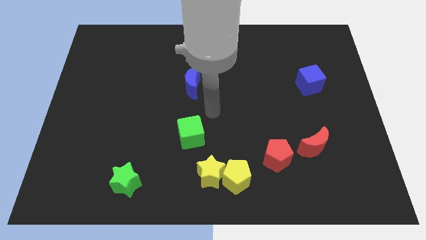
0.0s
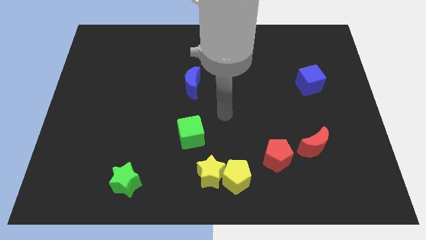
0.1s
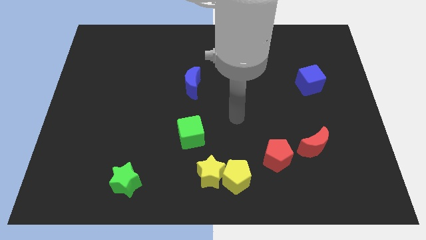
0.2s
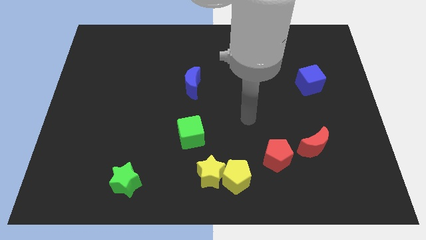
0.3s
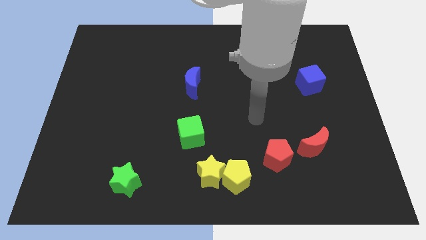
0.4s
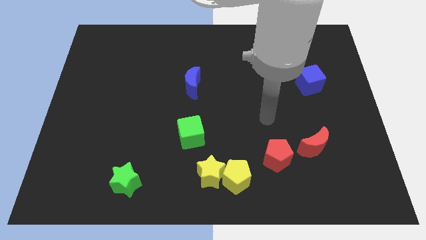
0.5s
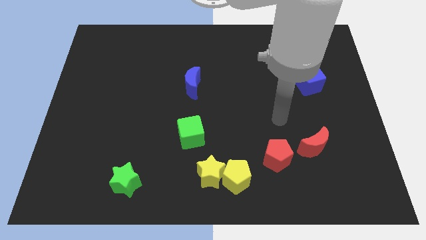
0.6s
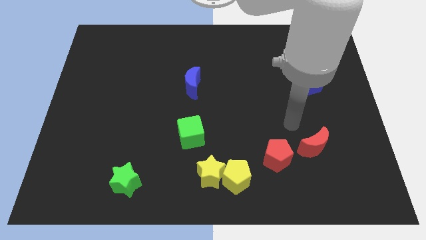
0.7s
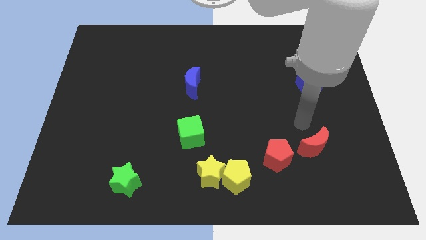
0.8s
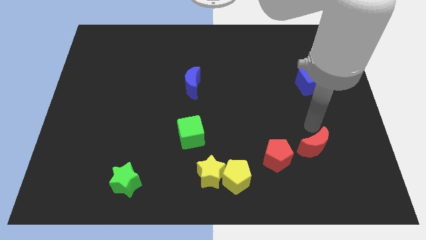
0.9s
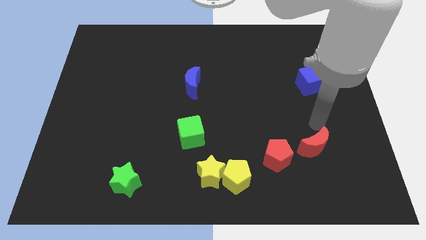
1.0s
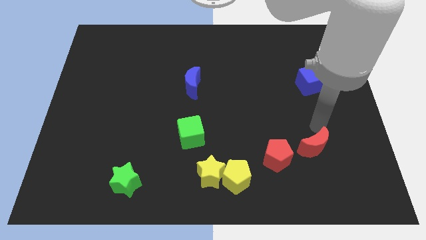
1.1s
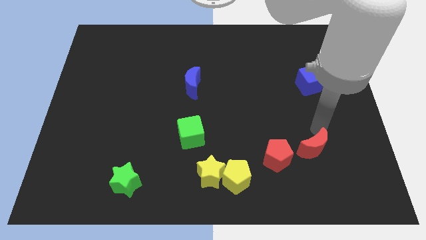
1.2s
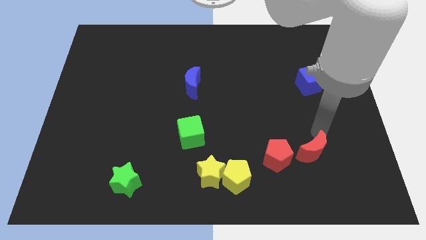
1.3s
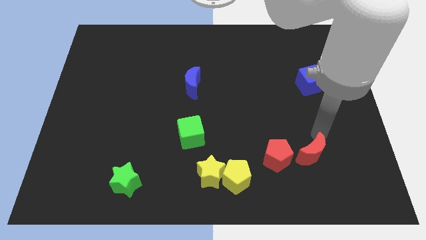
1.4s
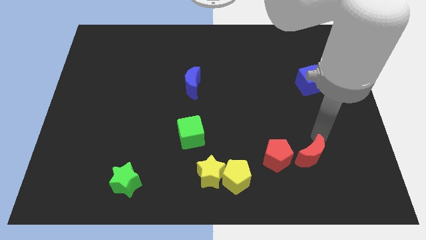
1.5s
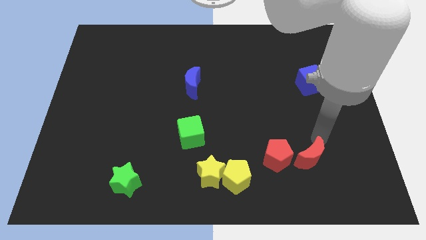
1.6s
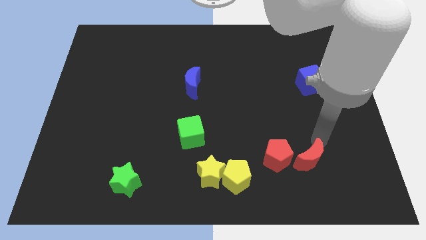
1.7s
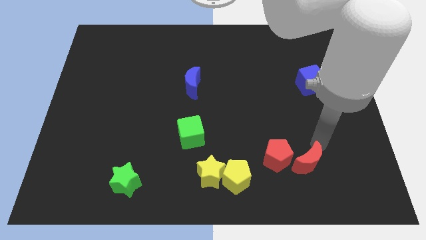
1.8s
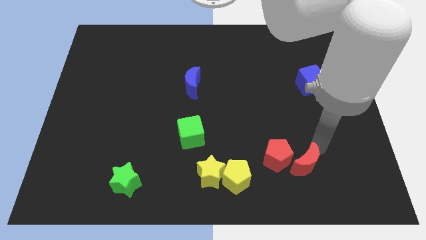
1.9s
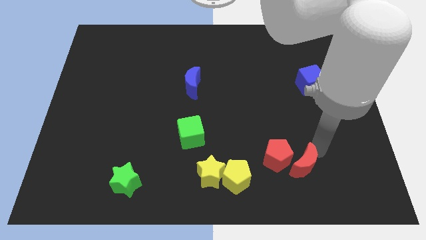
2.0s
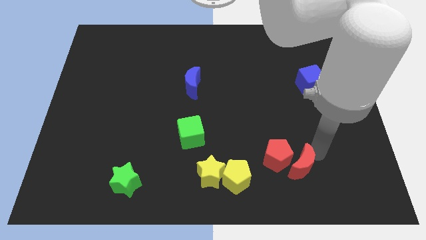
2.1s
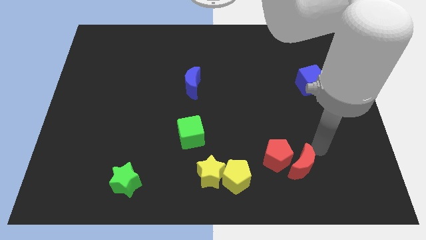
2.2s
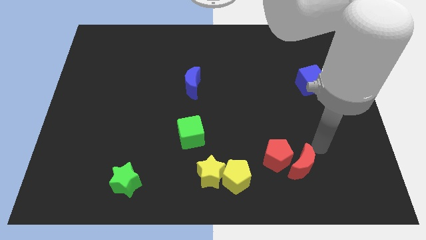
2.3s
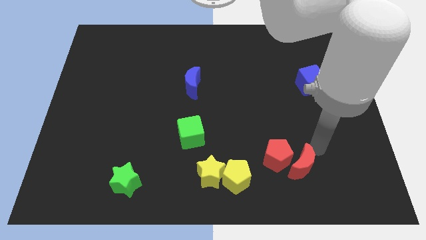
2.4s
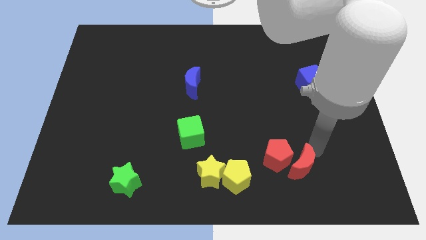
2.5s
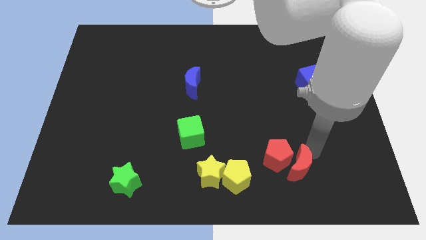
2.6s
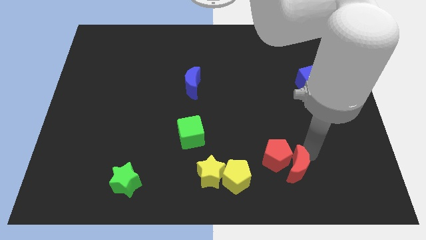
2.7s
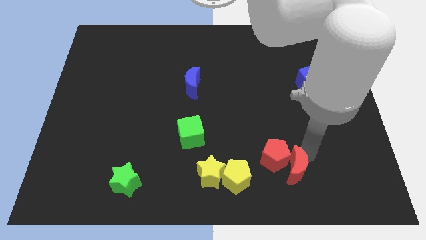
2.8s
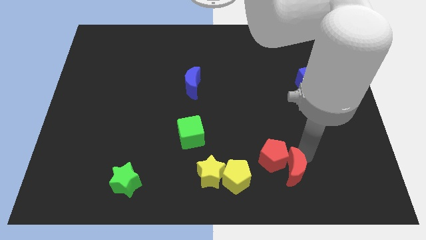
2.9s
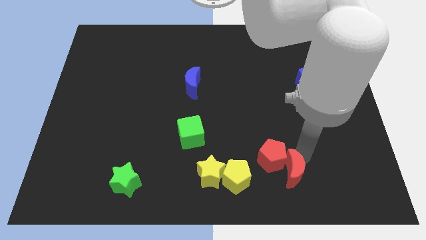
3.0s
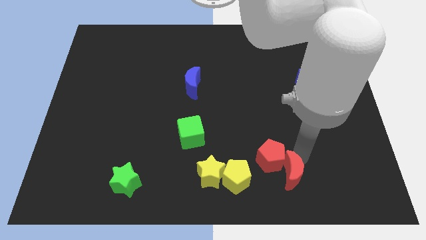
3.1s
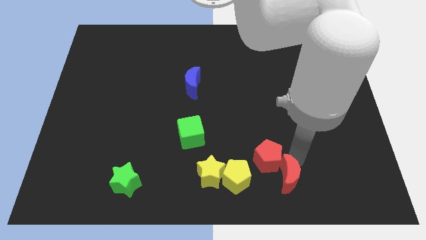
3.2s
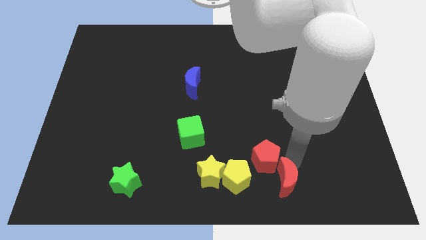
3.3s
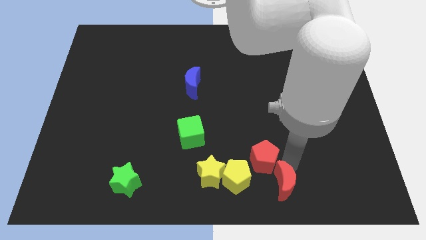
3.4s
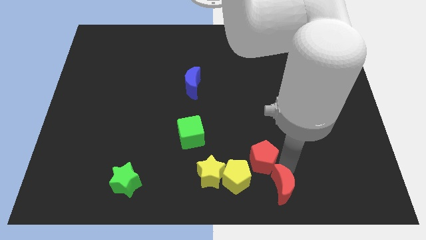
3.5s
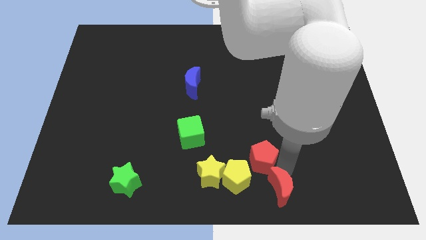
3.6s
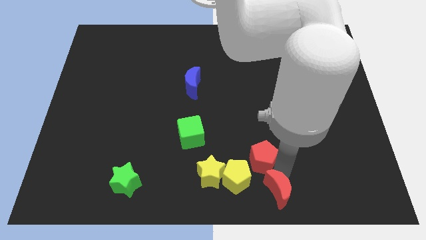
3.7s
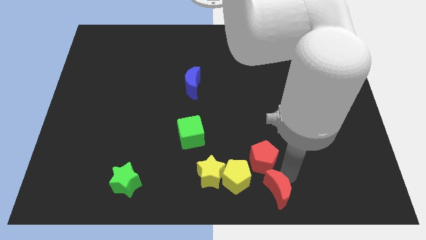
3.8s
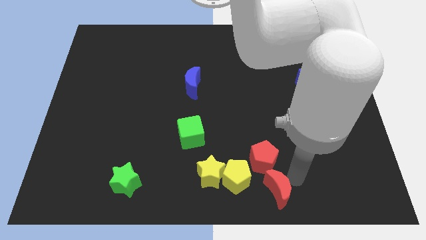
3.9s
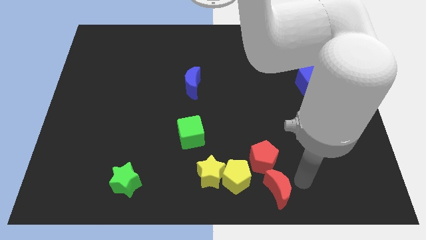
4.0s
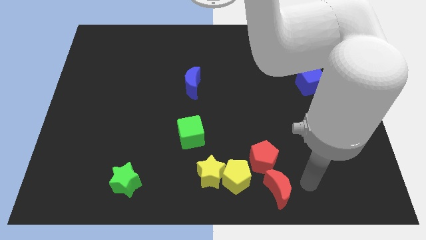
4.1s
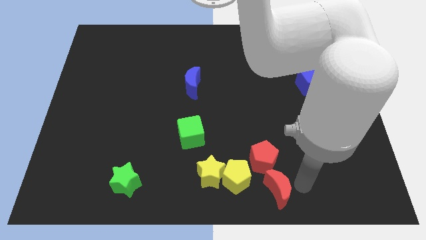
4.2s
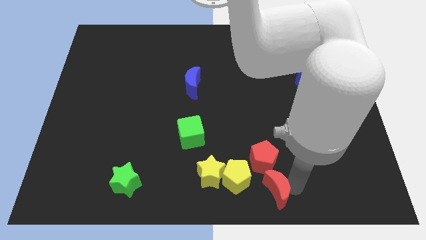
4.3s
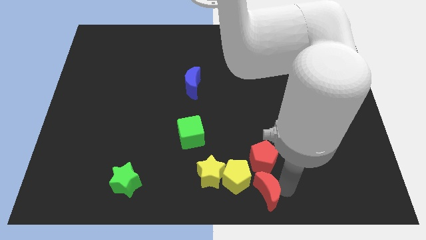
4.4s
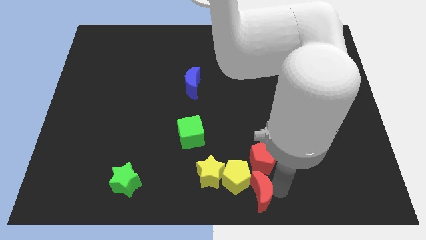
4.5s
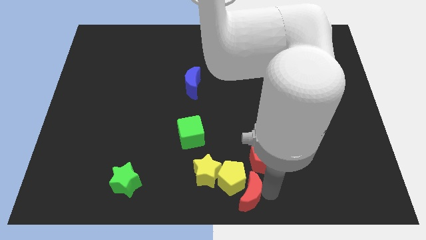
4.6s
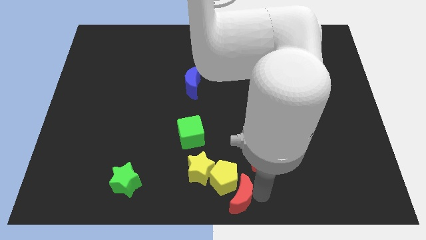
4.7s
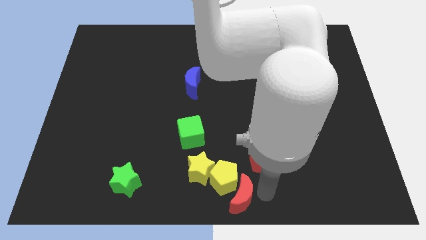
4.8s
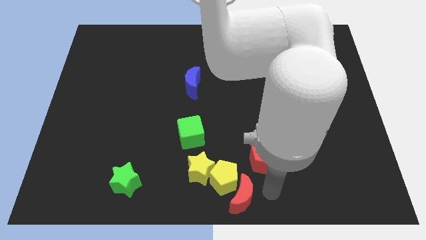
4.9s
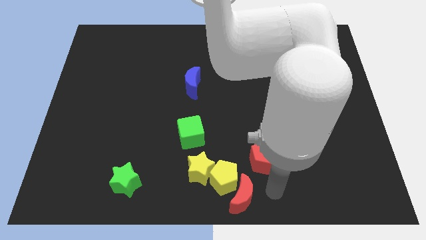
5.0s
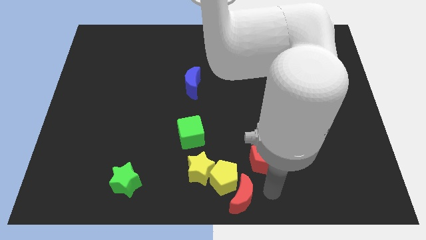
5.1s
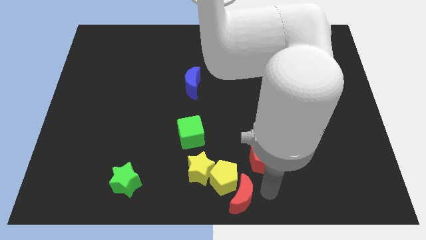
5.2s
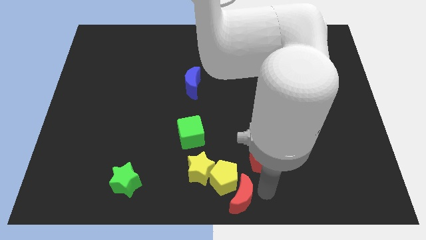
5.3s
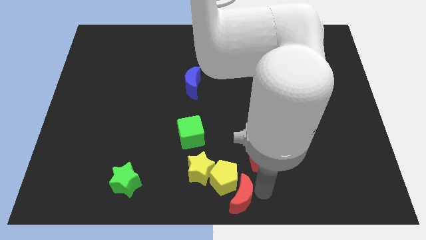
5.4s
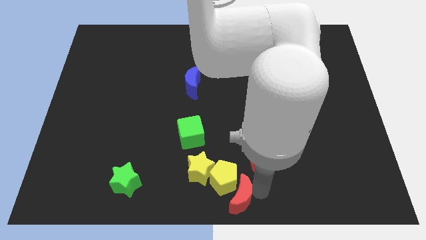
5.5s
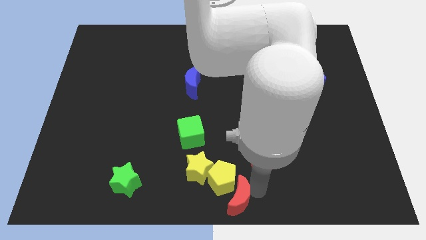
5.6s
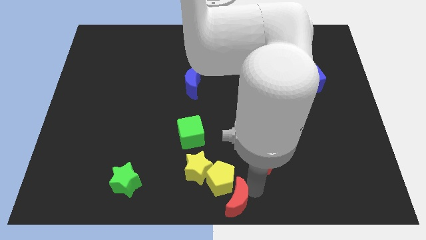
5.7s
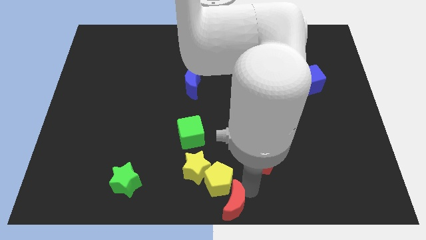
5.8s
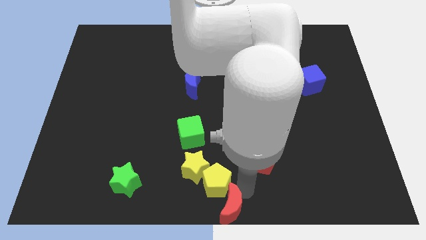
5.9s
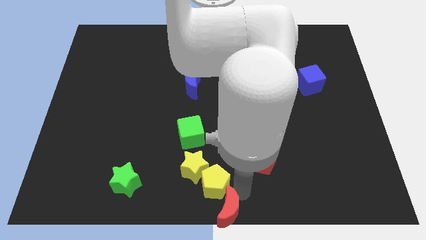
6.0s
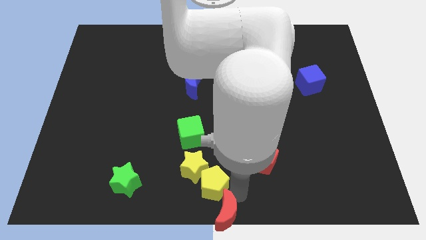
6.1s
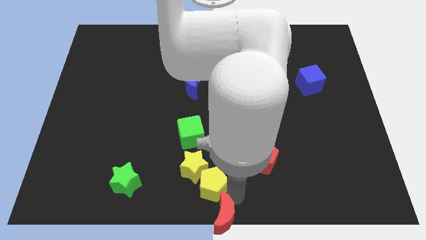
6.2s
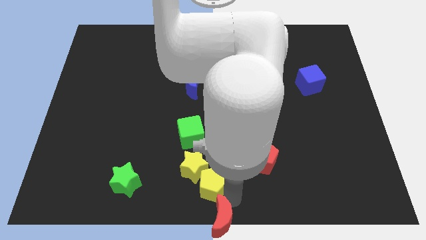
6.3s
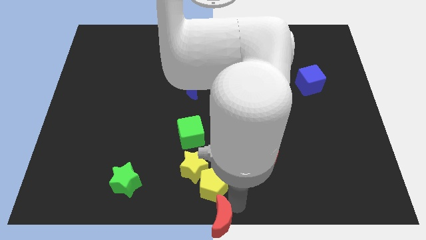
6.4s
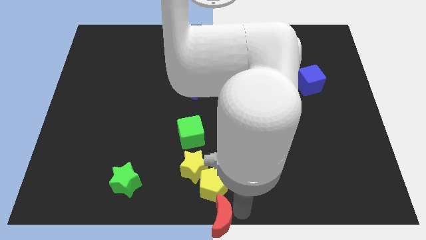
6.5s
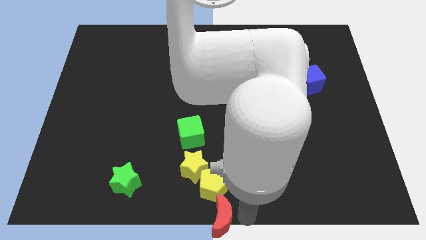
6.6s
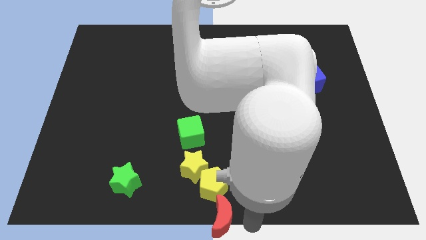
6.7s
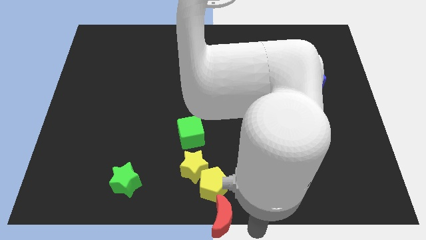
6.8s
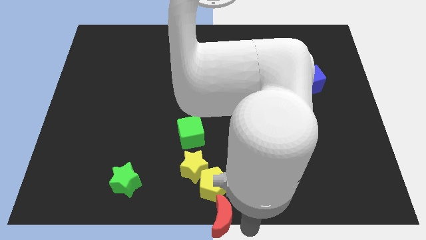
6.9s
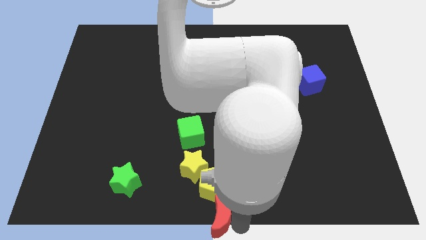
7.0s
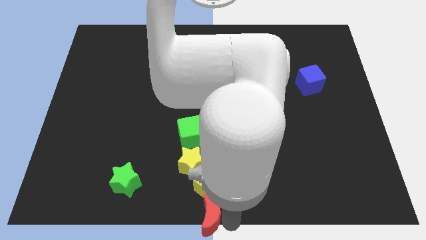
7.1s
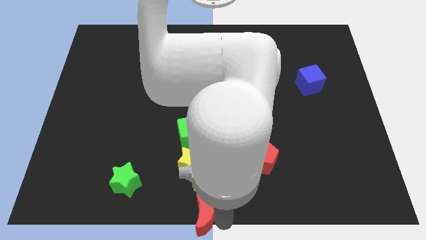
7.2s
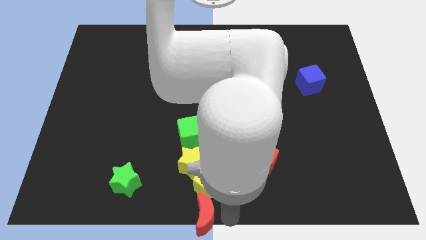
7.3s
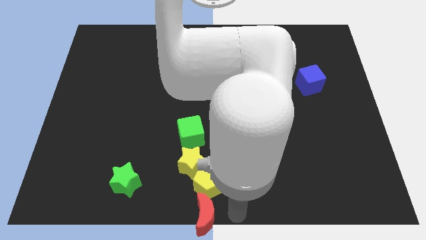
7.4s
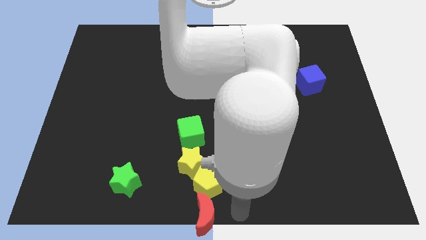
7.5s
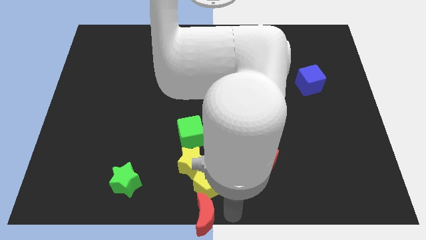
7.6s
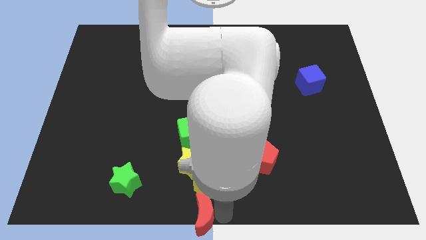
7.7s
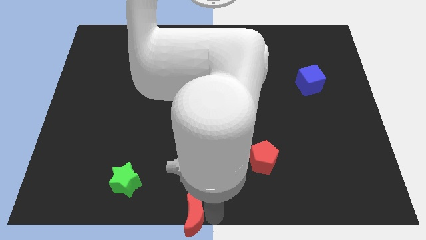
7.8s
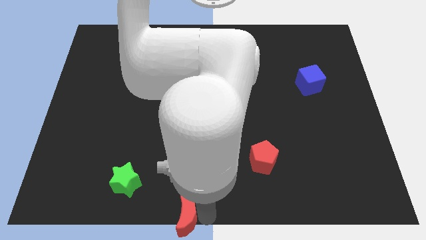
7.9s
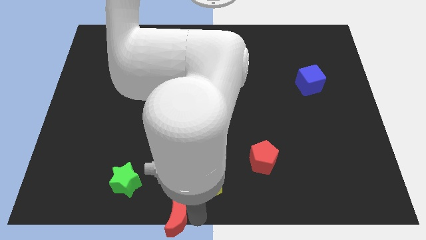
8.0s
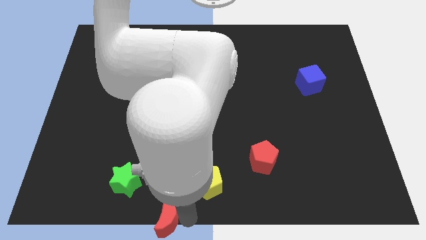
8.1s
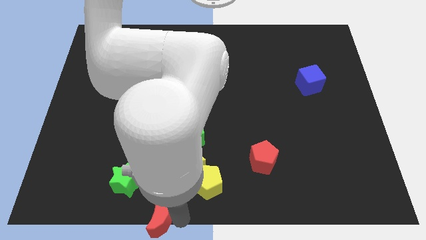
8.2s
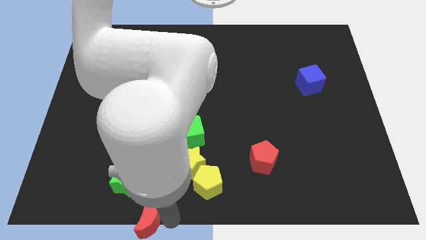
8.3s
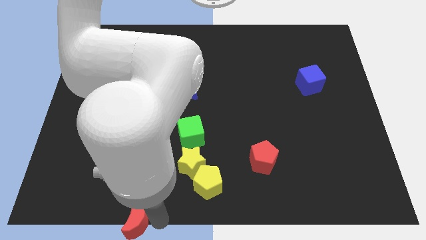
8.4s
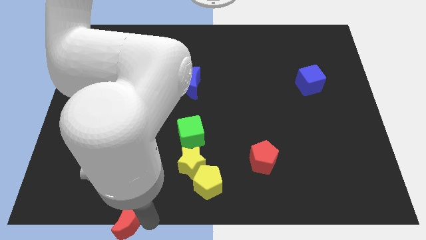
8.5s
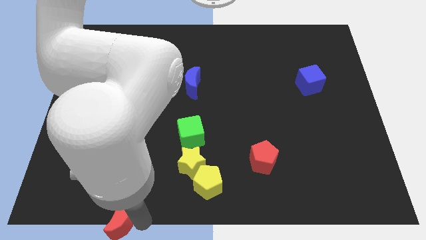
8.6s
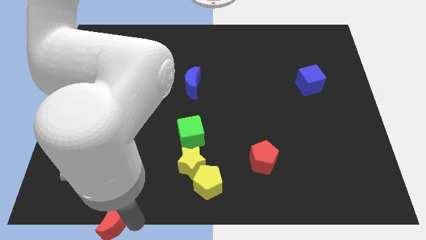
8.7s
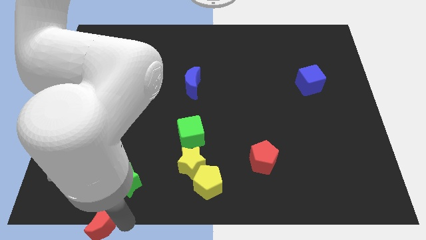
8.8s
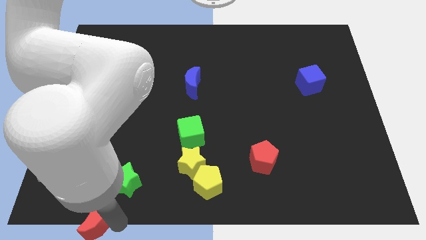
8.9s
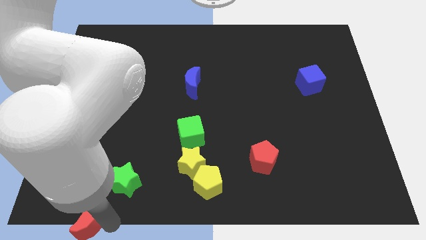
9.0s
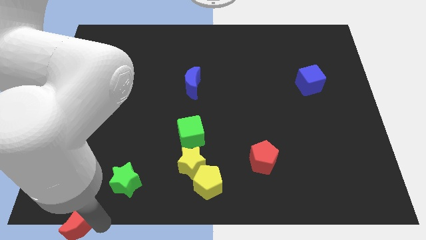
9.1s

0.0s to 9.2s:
put the red moon to the bottom left corner
